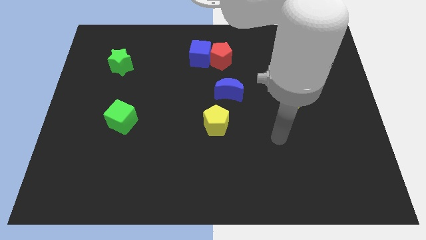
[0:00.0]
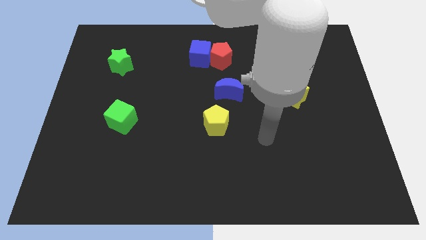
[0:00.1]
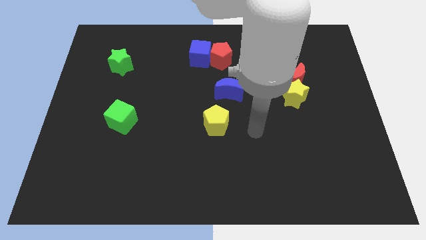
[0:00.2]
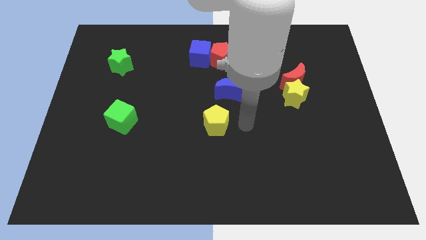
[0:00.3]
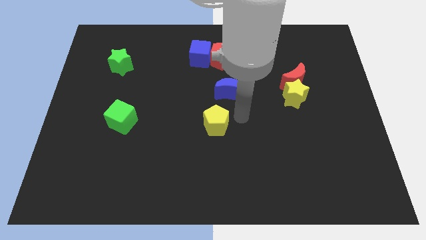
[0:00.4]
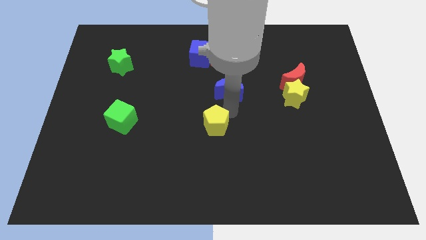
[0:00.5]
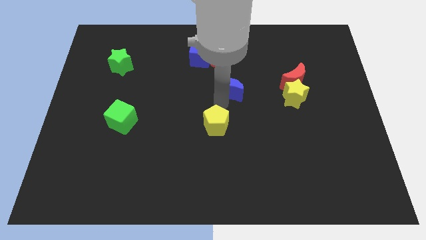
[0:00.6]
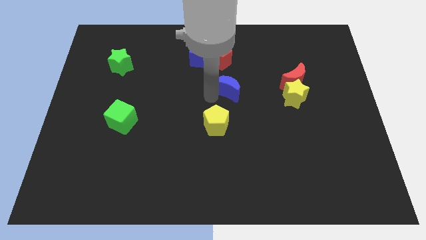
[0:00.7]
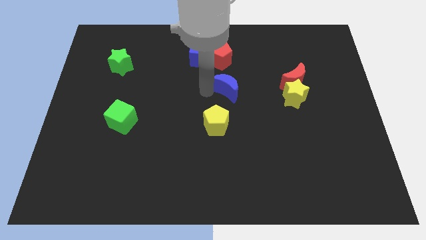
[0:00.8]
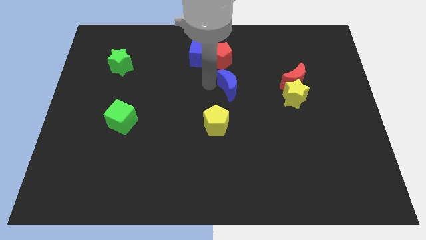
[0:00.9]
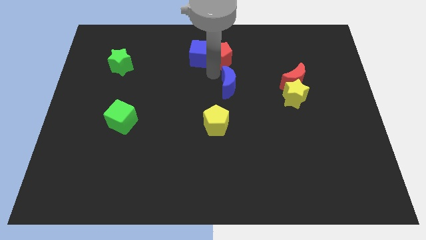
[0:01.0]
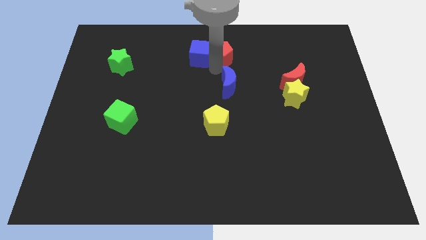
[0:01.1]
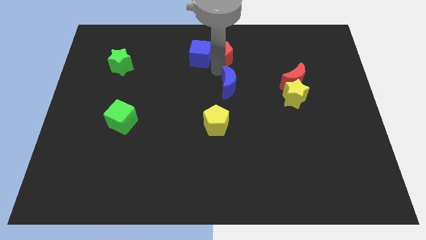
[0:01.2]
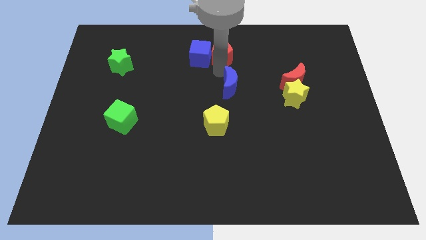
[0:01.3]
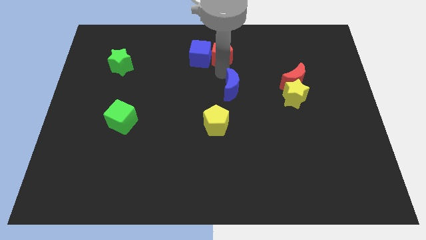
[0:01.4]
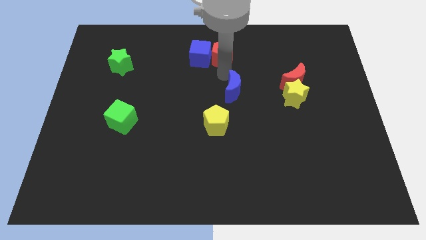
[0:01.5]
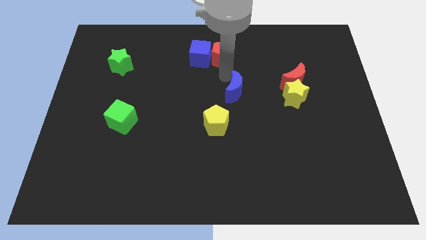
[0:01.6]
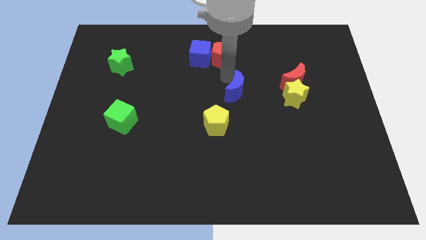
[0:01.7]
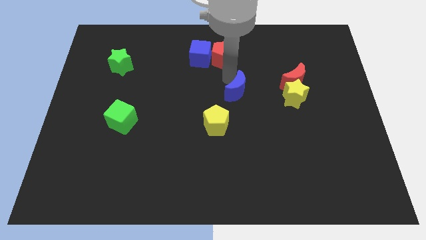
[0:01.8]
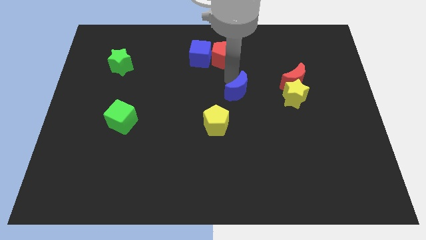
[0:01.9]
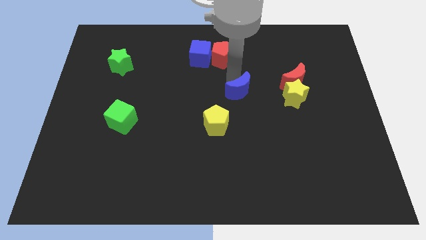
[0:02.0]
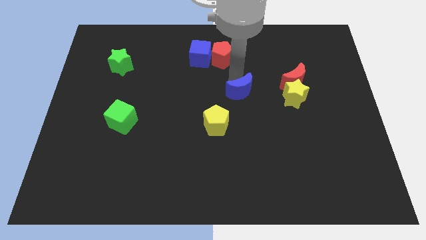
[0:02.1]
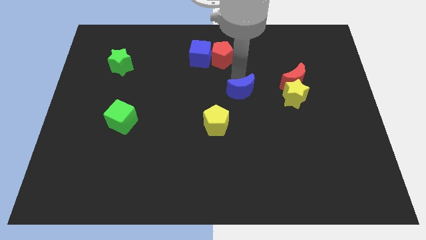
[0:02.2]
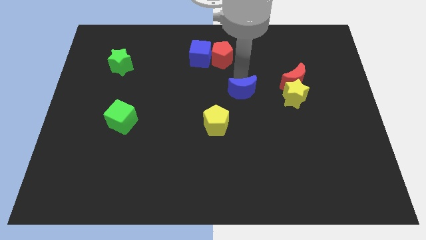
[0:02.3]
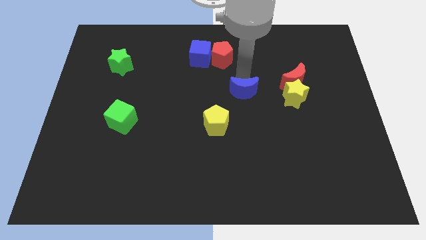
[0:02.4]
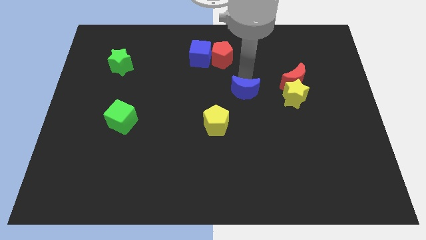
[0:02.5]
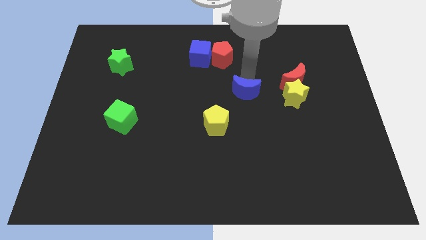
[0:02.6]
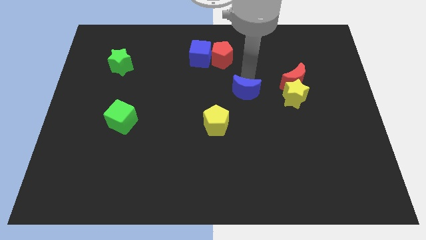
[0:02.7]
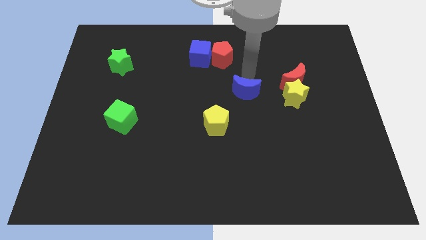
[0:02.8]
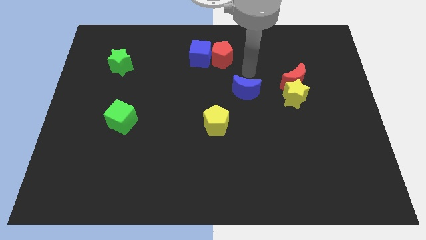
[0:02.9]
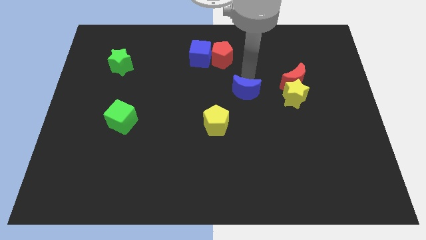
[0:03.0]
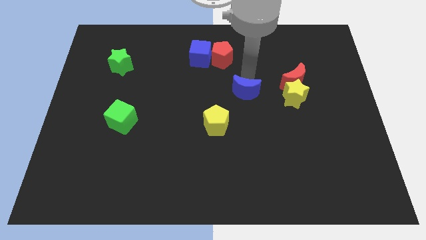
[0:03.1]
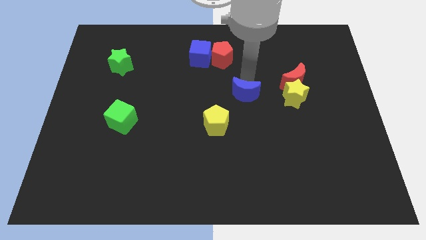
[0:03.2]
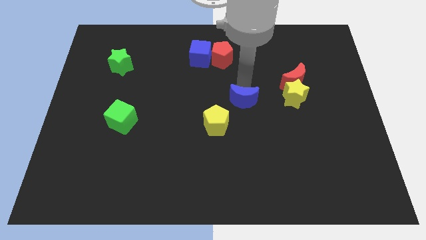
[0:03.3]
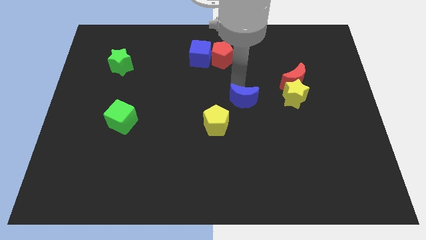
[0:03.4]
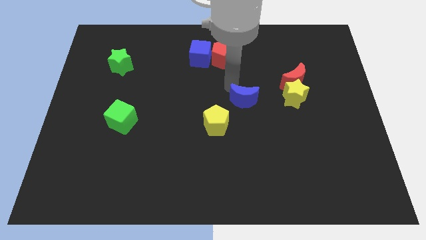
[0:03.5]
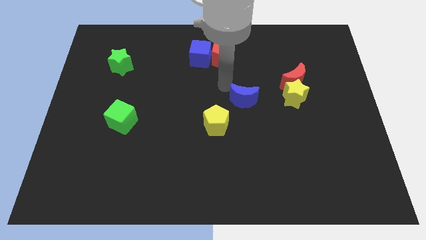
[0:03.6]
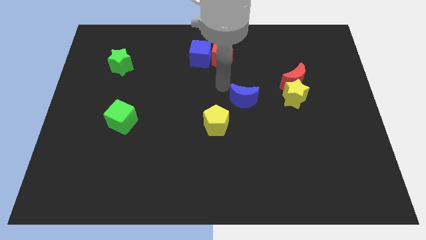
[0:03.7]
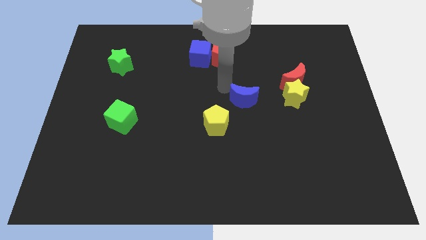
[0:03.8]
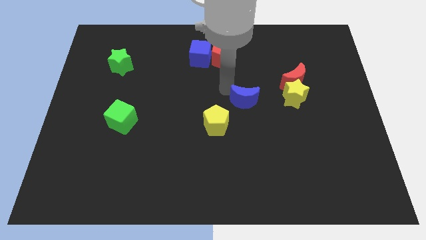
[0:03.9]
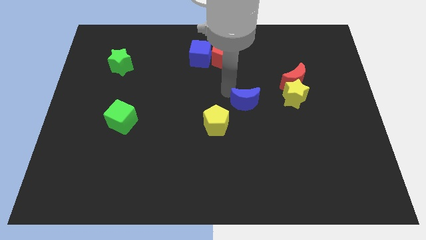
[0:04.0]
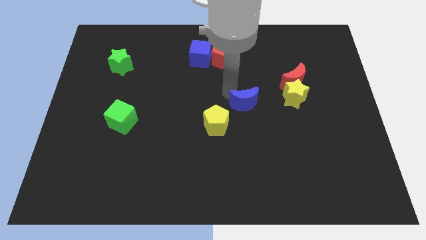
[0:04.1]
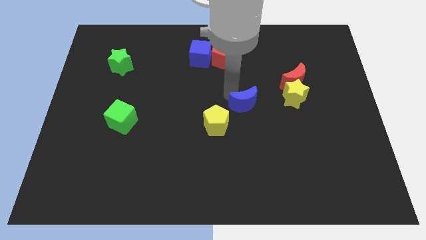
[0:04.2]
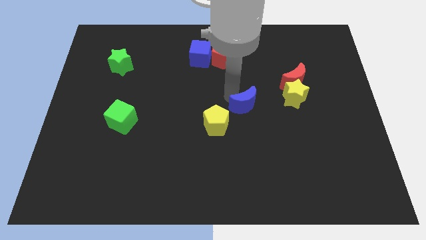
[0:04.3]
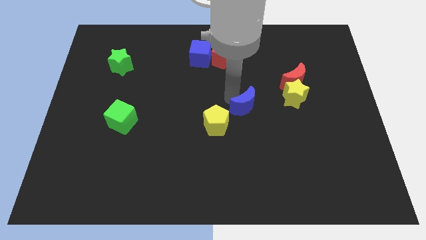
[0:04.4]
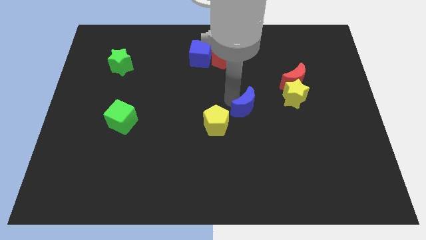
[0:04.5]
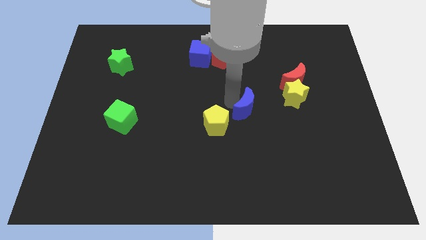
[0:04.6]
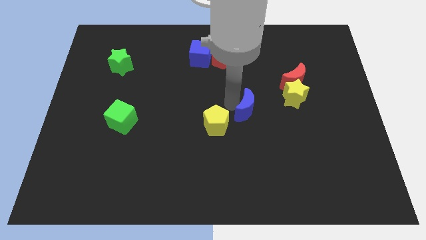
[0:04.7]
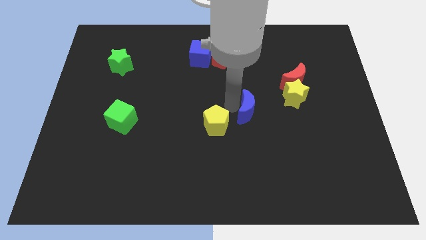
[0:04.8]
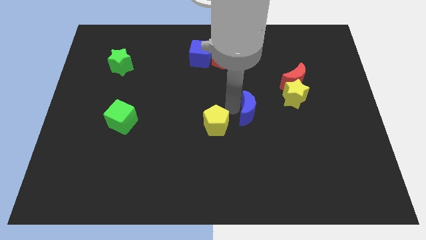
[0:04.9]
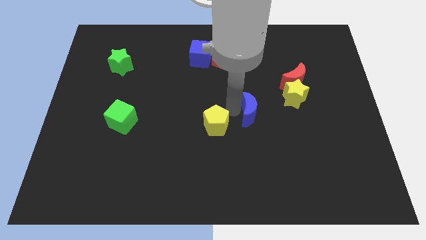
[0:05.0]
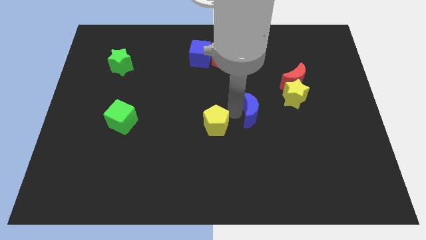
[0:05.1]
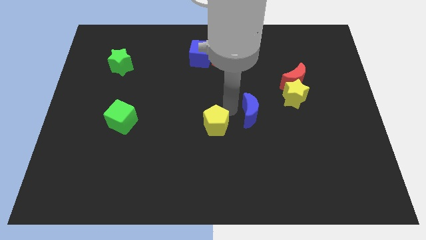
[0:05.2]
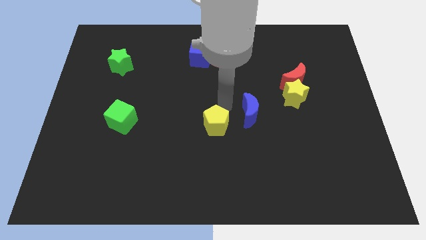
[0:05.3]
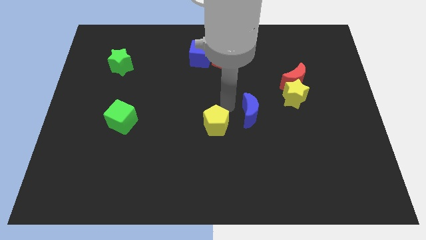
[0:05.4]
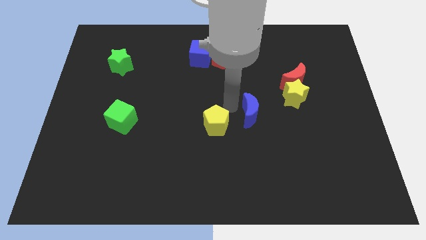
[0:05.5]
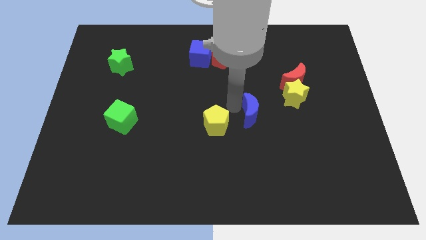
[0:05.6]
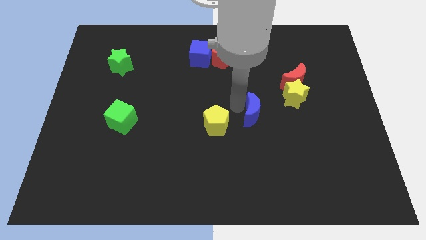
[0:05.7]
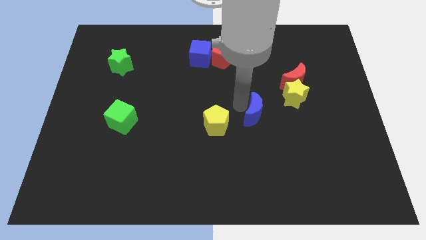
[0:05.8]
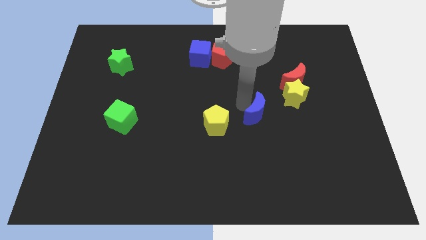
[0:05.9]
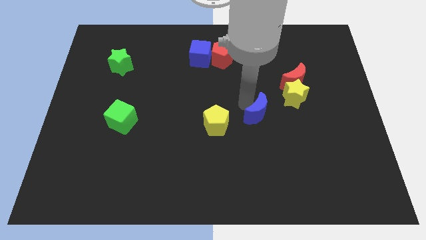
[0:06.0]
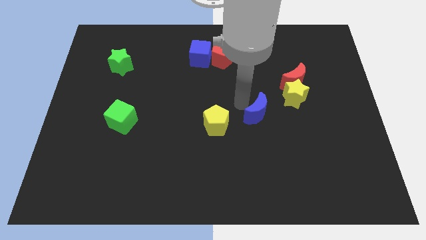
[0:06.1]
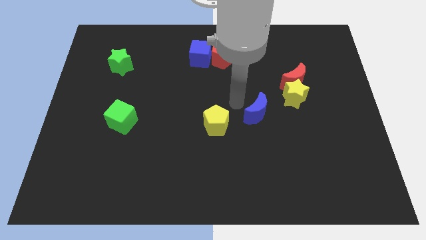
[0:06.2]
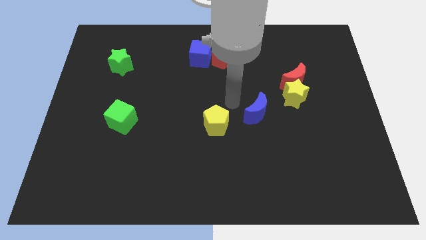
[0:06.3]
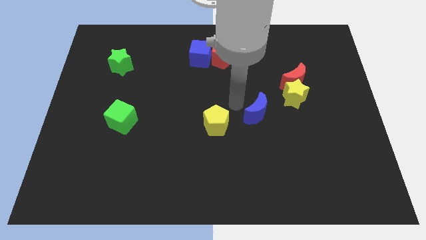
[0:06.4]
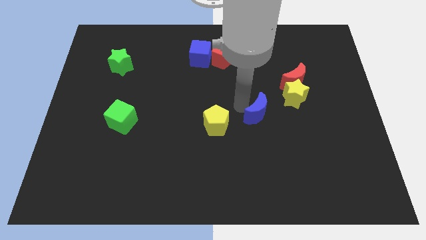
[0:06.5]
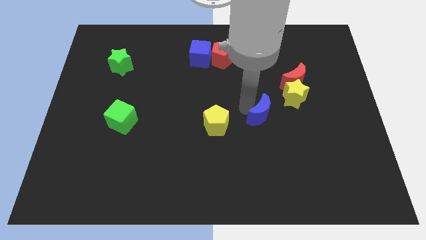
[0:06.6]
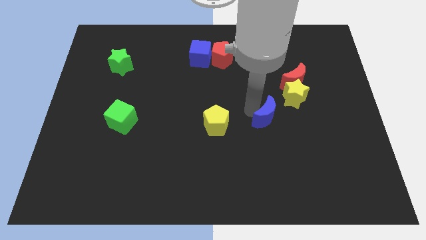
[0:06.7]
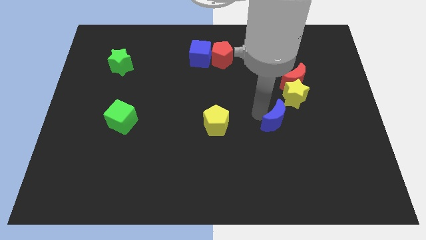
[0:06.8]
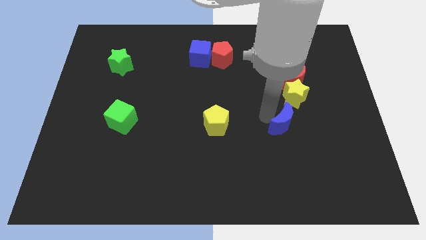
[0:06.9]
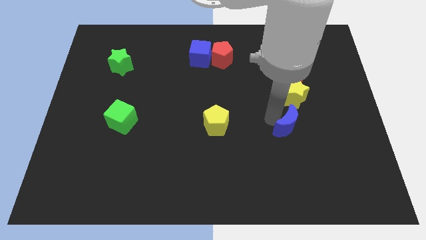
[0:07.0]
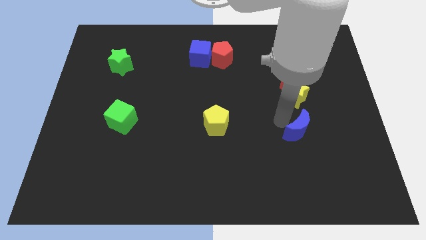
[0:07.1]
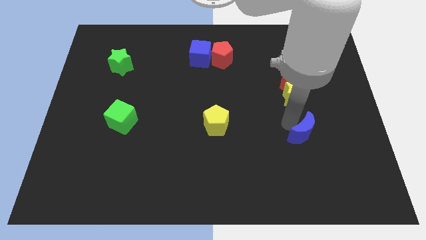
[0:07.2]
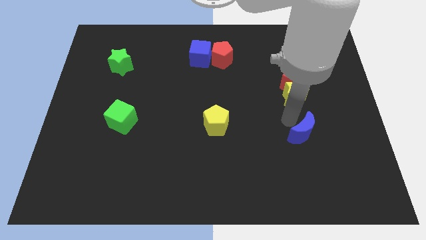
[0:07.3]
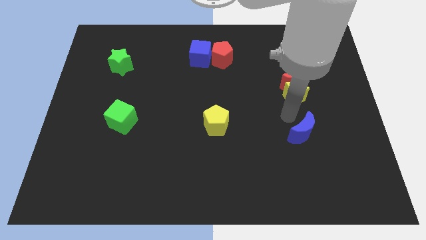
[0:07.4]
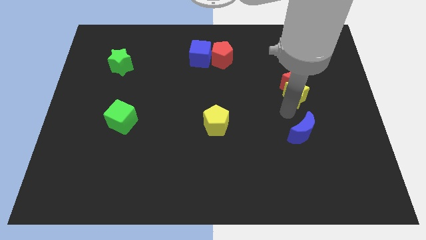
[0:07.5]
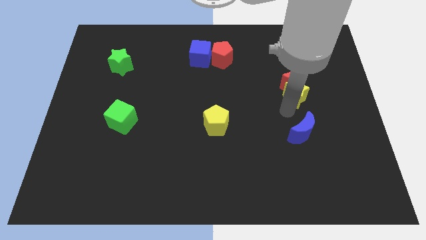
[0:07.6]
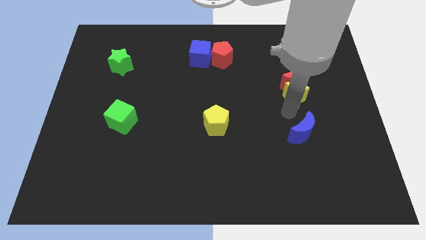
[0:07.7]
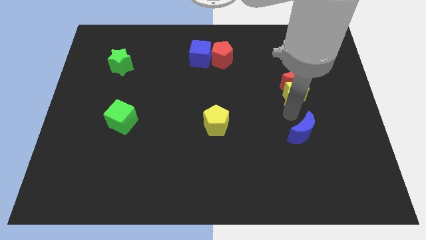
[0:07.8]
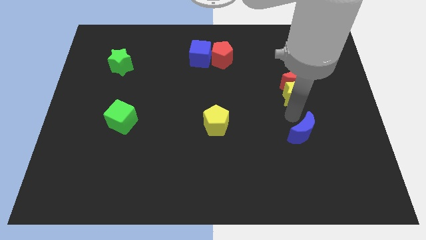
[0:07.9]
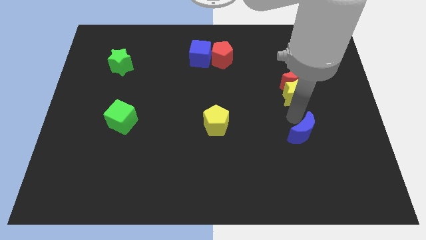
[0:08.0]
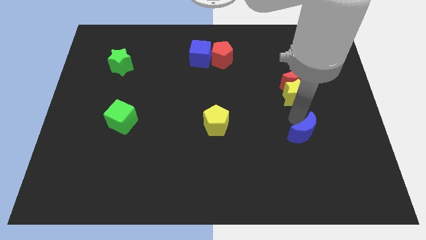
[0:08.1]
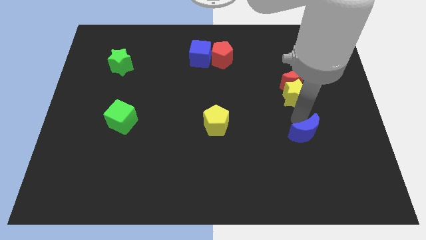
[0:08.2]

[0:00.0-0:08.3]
push the blue moon down and right
